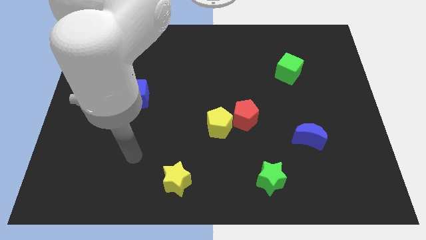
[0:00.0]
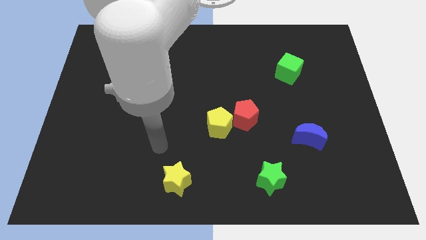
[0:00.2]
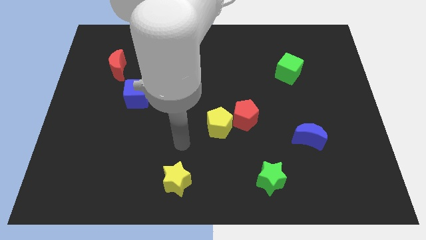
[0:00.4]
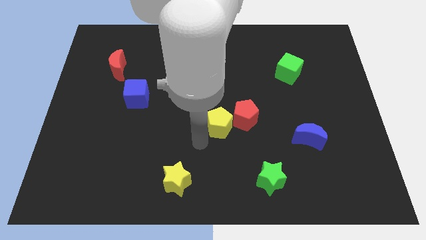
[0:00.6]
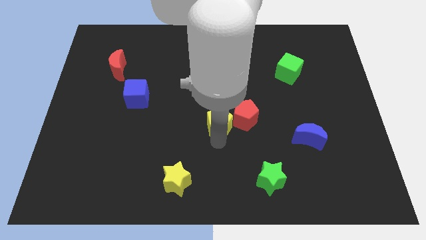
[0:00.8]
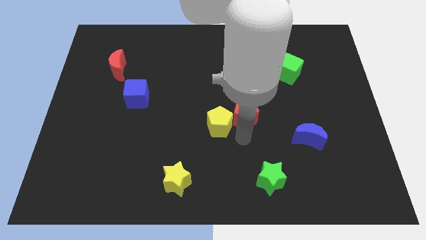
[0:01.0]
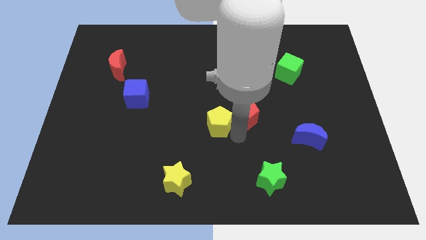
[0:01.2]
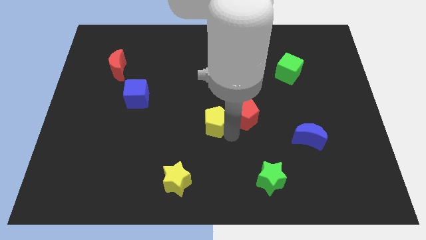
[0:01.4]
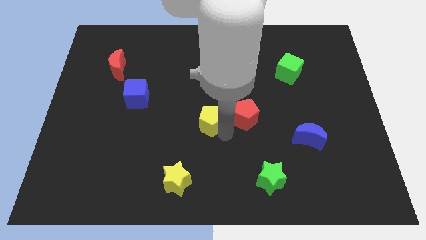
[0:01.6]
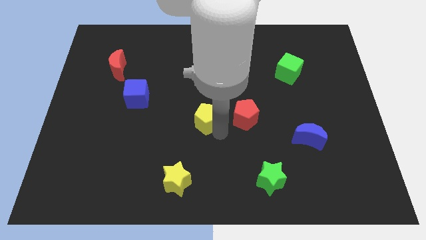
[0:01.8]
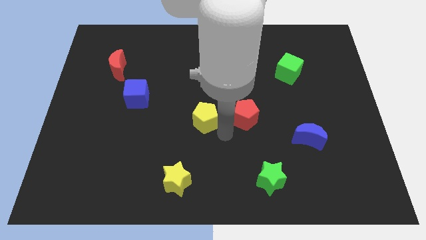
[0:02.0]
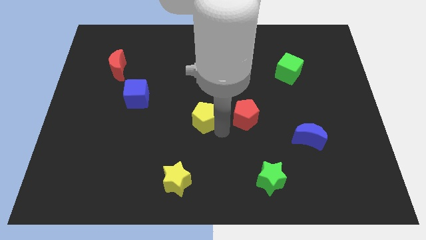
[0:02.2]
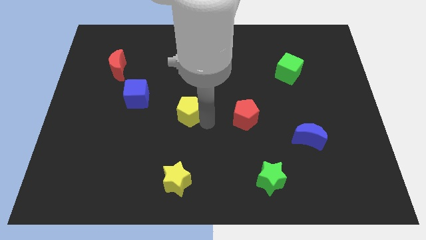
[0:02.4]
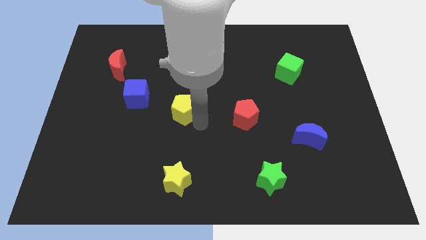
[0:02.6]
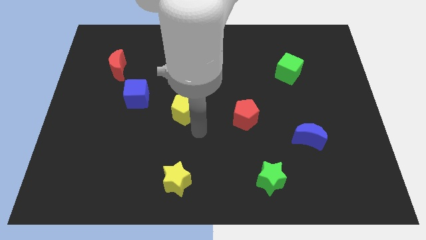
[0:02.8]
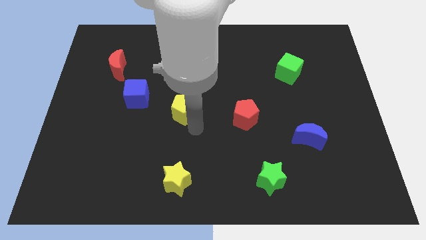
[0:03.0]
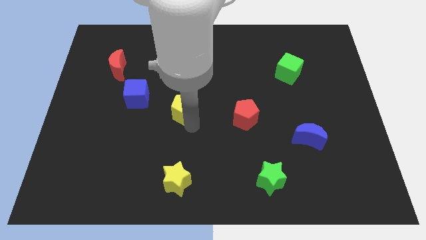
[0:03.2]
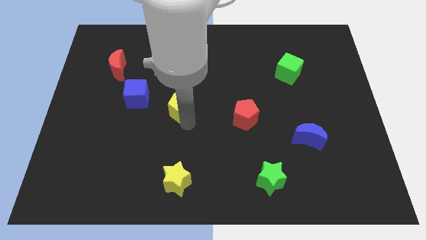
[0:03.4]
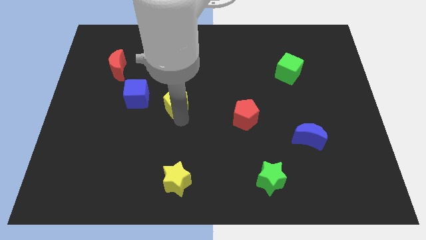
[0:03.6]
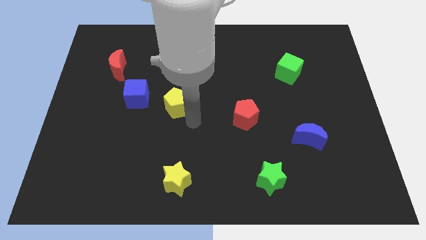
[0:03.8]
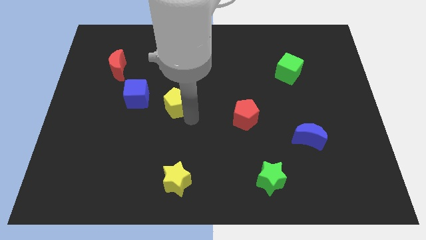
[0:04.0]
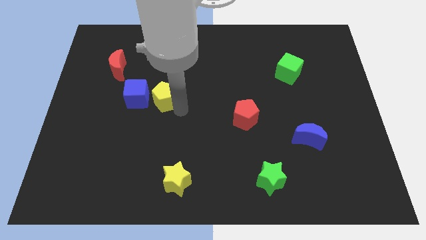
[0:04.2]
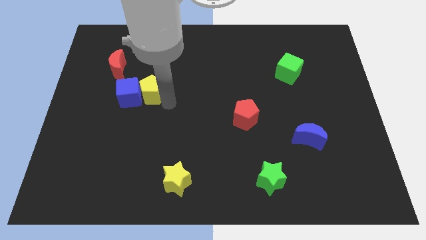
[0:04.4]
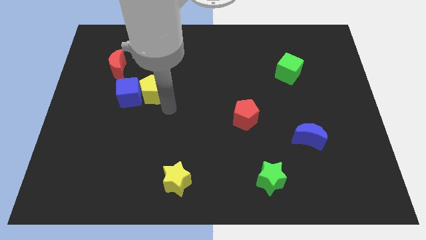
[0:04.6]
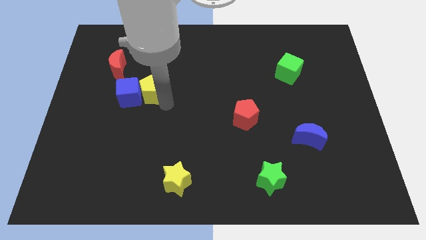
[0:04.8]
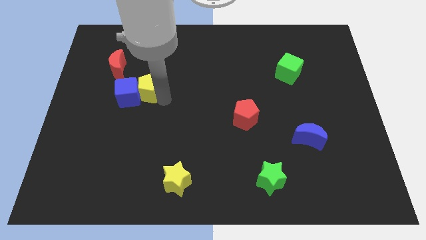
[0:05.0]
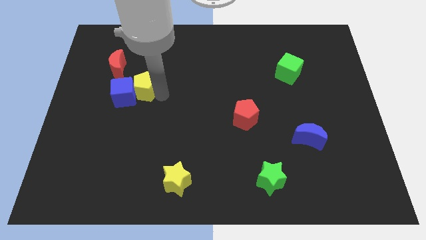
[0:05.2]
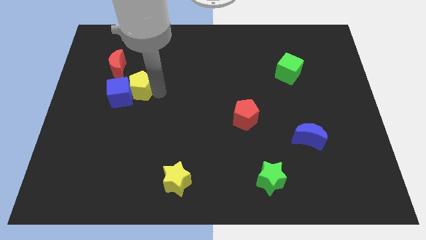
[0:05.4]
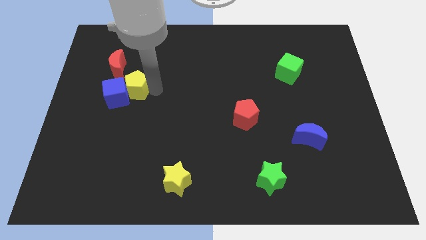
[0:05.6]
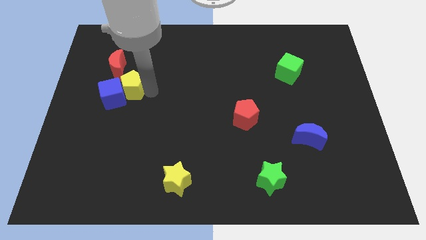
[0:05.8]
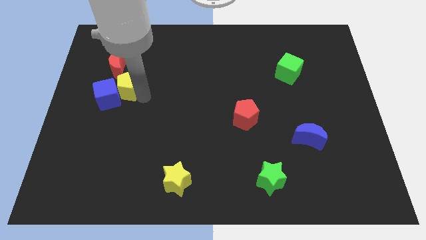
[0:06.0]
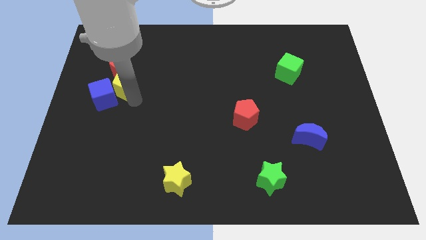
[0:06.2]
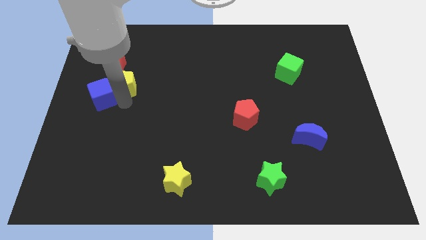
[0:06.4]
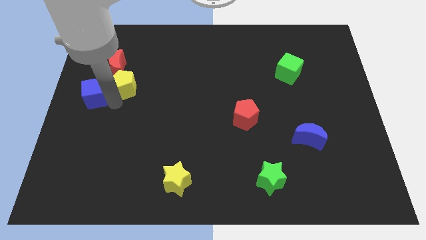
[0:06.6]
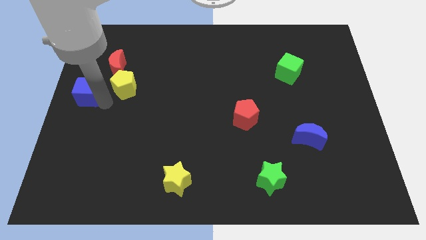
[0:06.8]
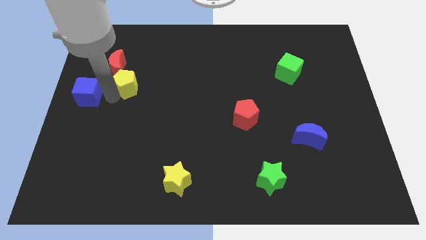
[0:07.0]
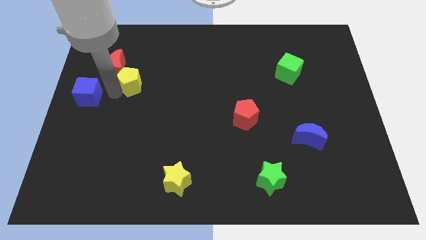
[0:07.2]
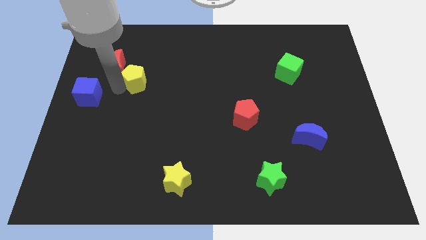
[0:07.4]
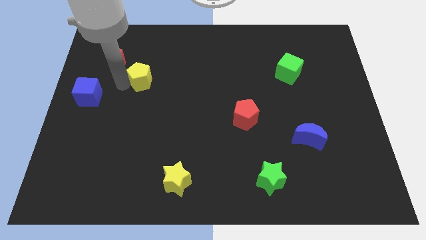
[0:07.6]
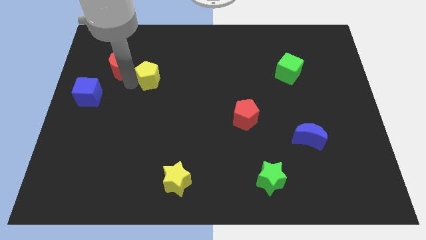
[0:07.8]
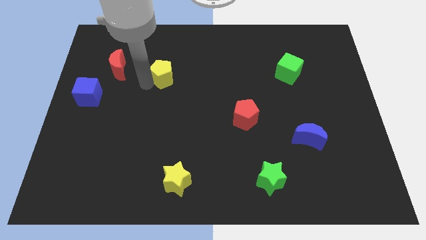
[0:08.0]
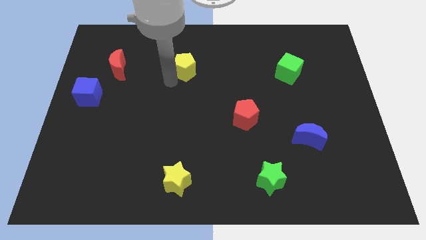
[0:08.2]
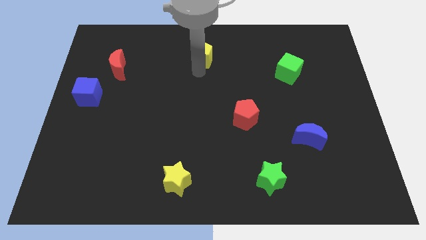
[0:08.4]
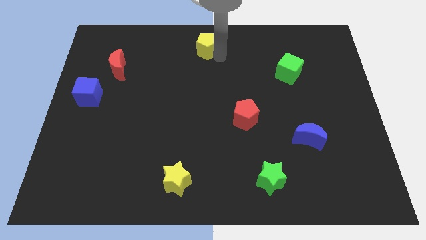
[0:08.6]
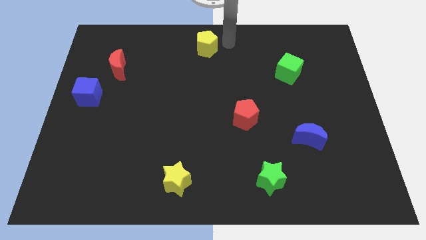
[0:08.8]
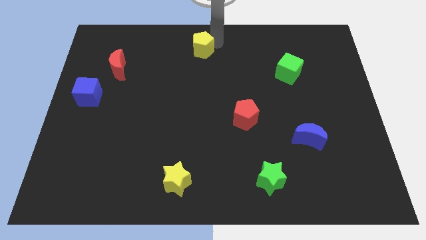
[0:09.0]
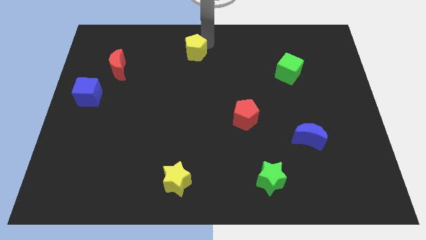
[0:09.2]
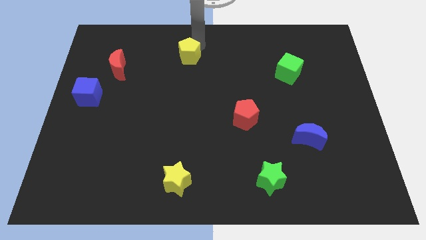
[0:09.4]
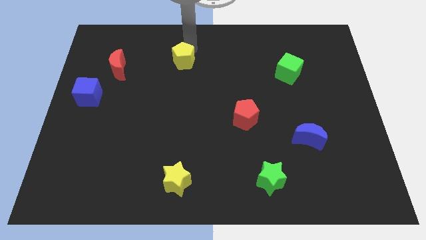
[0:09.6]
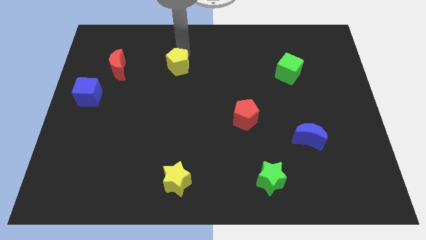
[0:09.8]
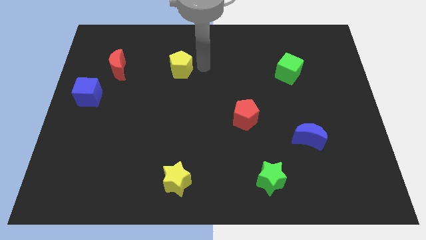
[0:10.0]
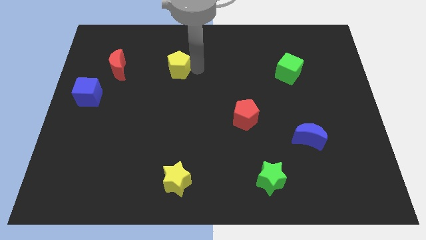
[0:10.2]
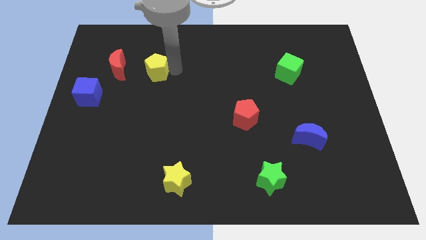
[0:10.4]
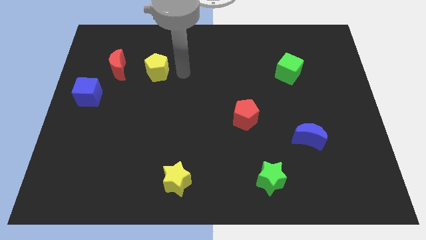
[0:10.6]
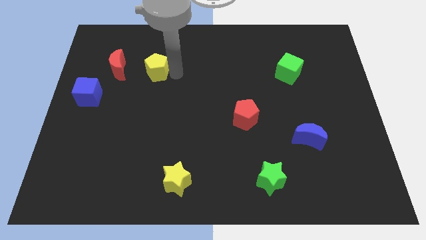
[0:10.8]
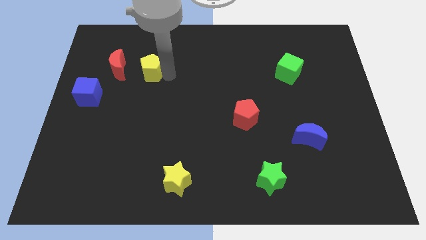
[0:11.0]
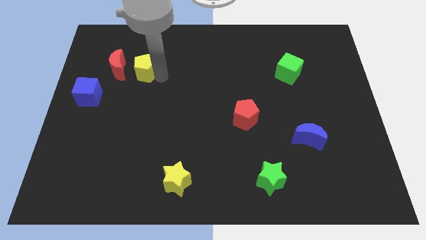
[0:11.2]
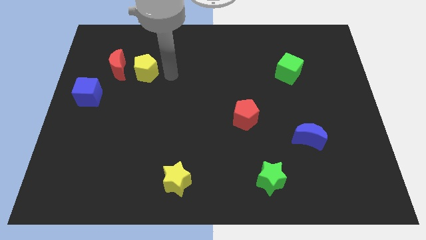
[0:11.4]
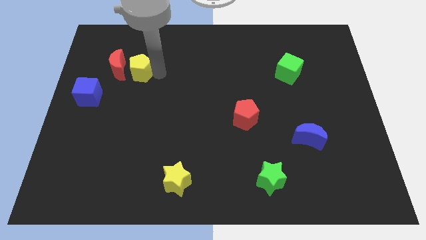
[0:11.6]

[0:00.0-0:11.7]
move the yellow pentagon to the red moon

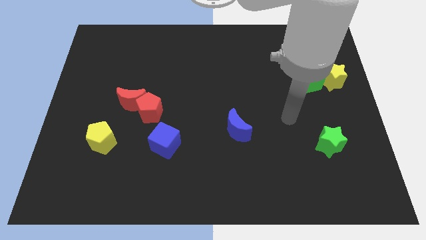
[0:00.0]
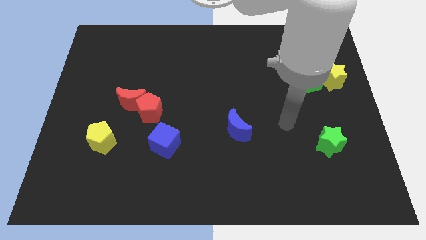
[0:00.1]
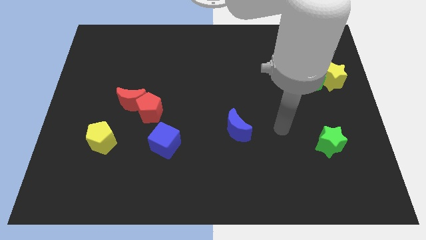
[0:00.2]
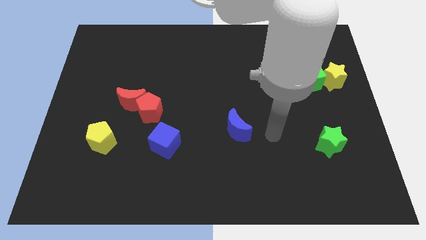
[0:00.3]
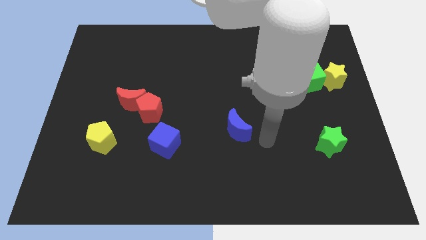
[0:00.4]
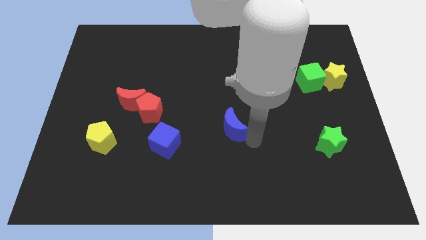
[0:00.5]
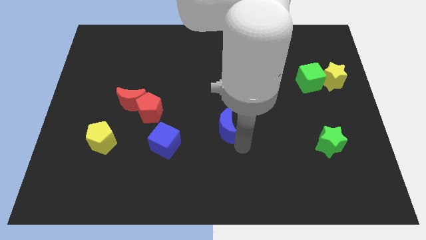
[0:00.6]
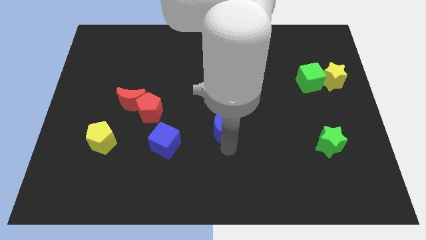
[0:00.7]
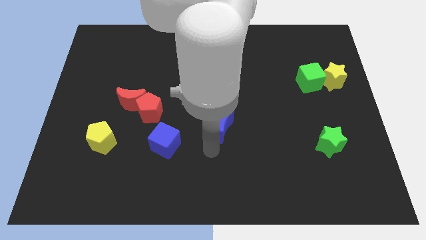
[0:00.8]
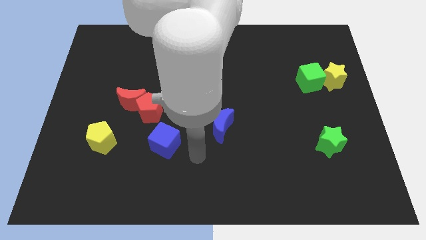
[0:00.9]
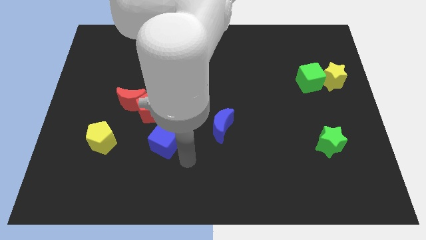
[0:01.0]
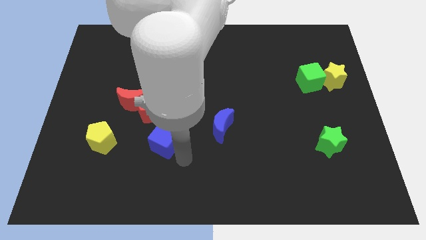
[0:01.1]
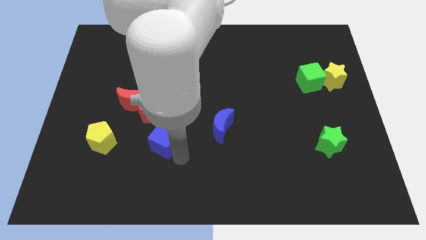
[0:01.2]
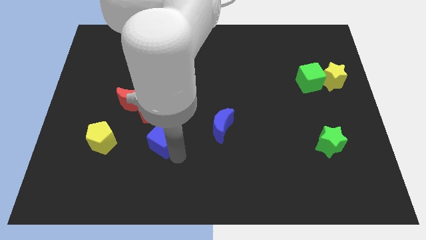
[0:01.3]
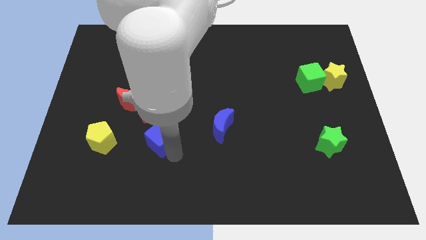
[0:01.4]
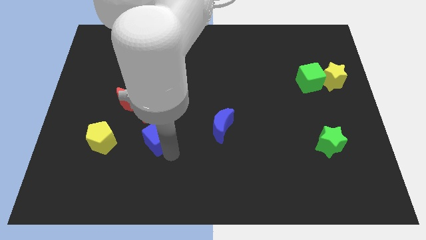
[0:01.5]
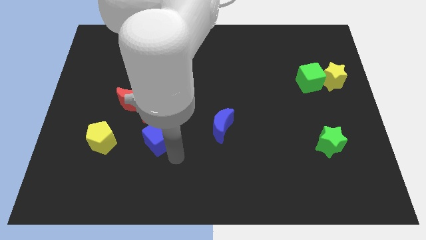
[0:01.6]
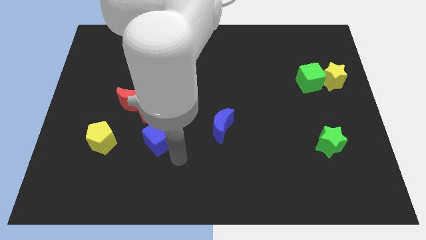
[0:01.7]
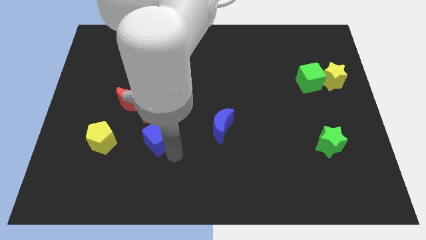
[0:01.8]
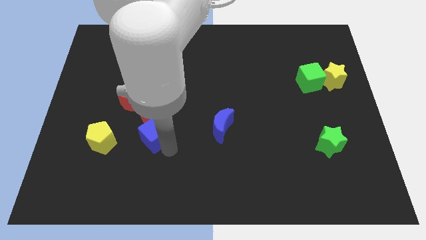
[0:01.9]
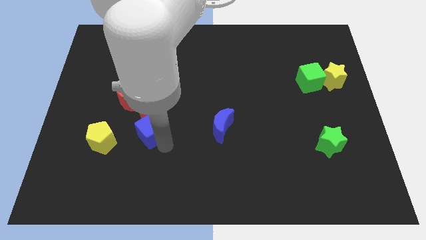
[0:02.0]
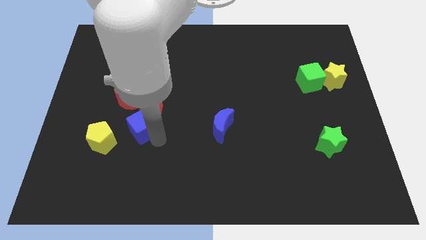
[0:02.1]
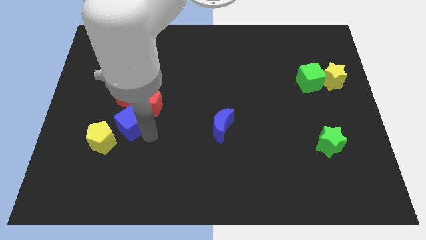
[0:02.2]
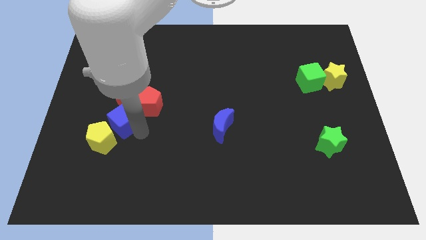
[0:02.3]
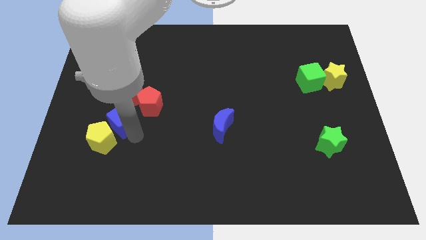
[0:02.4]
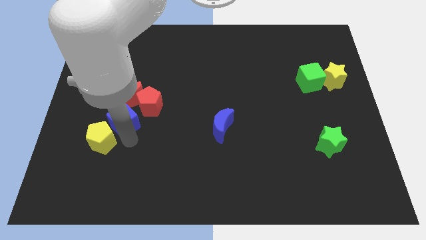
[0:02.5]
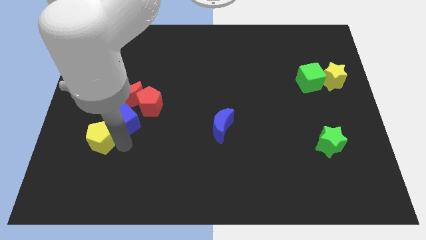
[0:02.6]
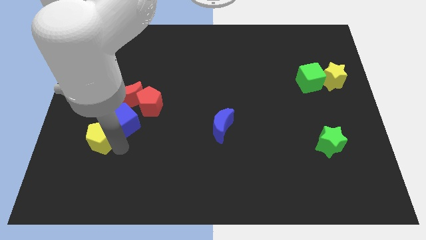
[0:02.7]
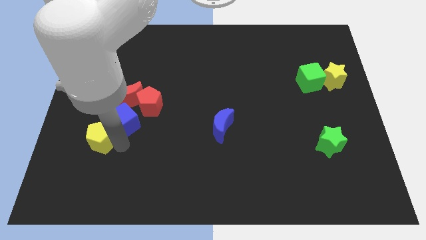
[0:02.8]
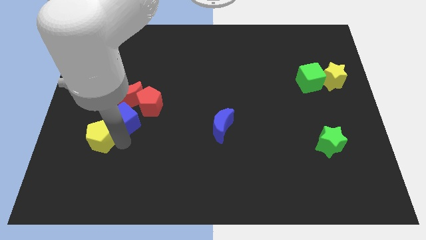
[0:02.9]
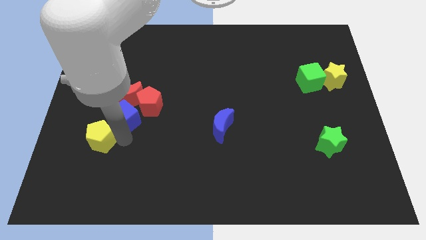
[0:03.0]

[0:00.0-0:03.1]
push the blue cube next to the red moon
